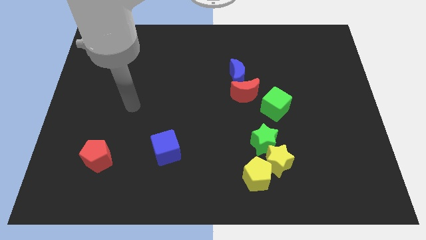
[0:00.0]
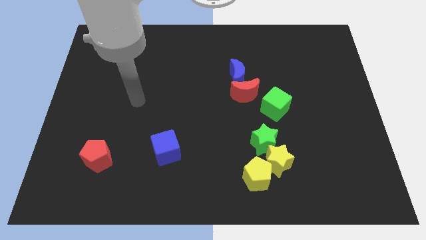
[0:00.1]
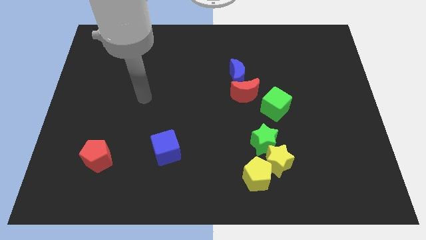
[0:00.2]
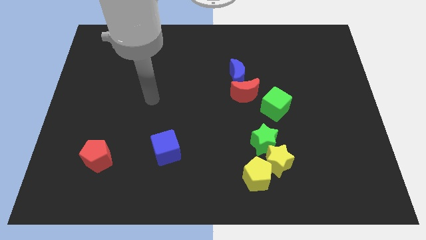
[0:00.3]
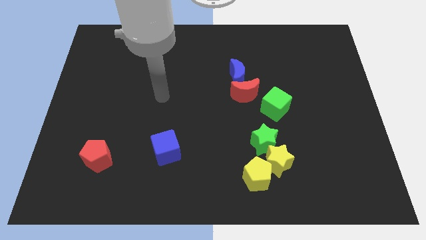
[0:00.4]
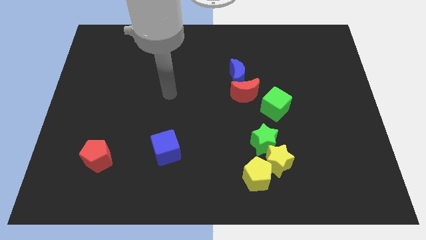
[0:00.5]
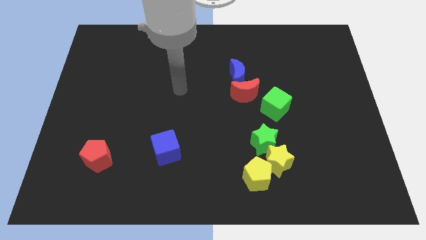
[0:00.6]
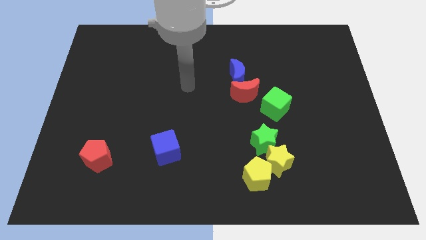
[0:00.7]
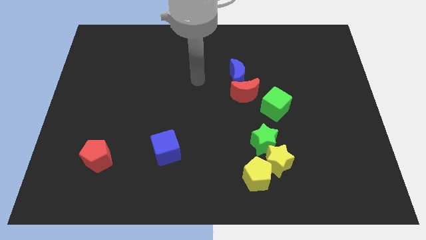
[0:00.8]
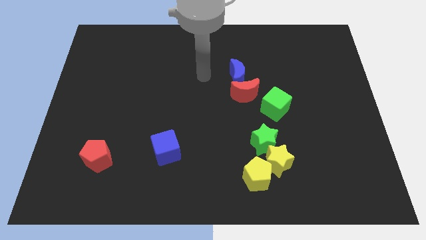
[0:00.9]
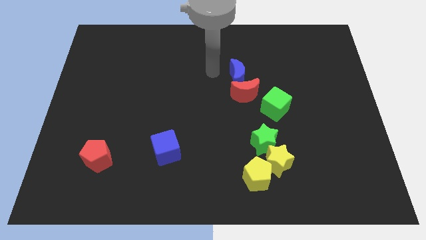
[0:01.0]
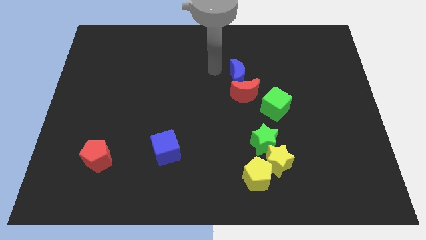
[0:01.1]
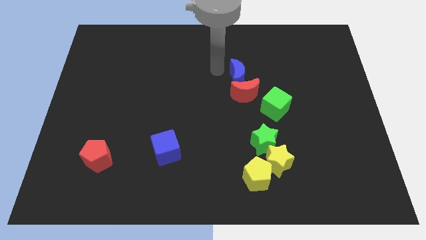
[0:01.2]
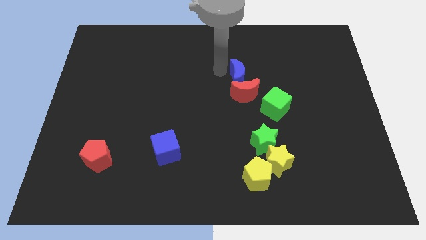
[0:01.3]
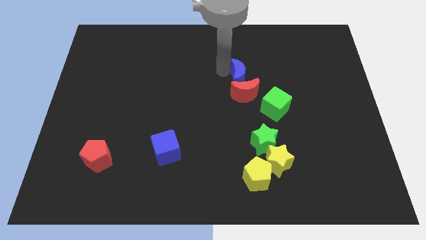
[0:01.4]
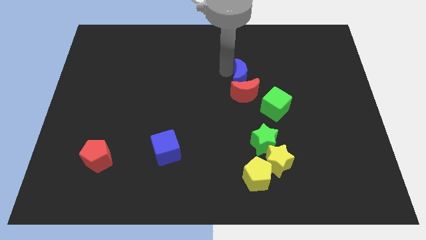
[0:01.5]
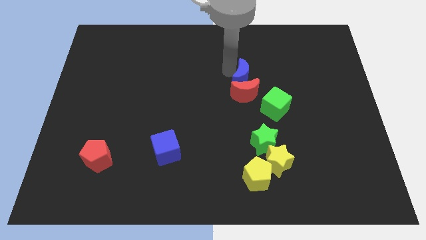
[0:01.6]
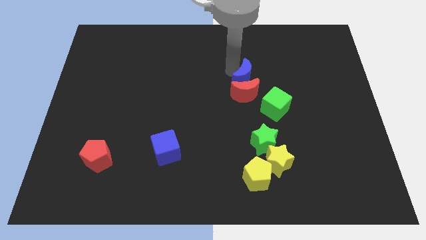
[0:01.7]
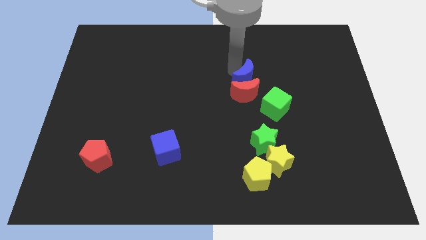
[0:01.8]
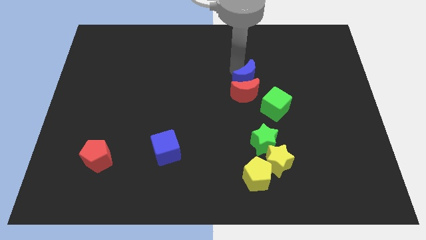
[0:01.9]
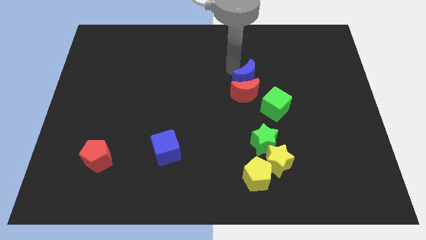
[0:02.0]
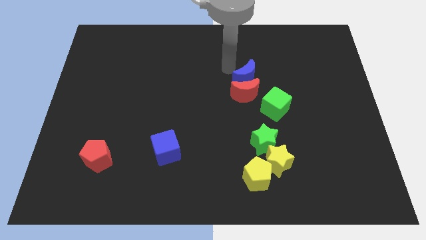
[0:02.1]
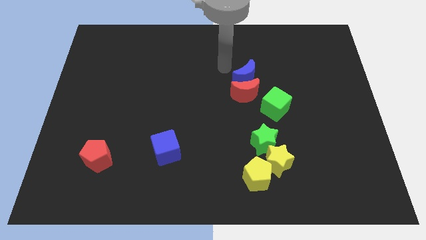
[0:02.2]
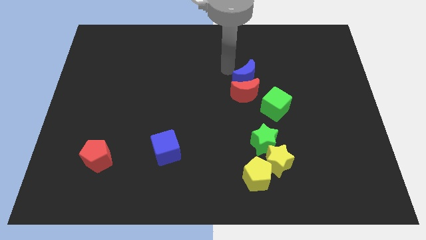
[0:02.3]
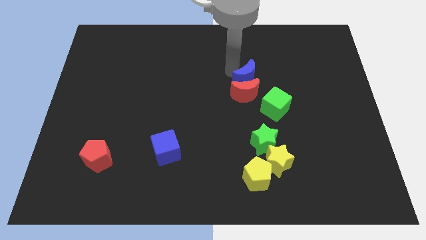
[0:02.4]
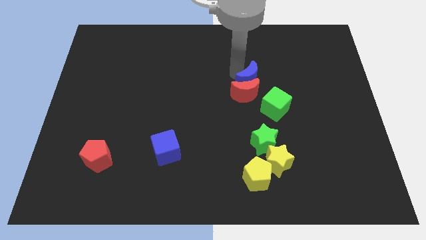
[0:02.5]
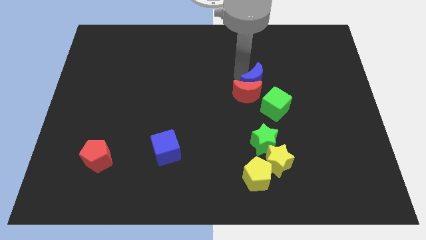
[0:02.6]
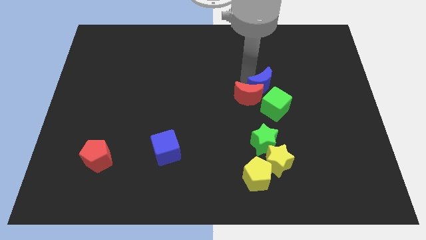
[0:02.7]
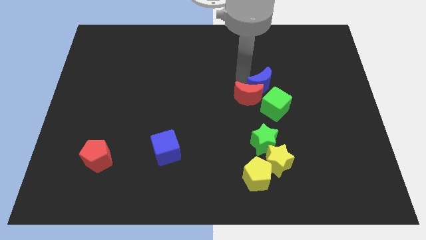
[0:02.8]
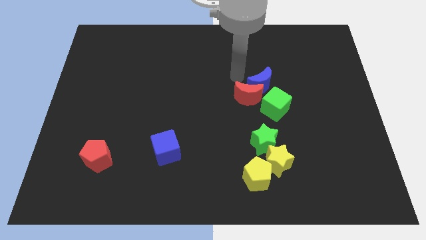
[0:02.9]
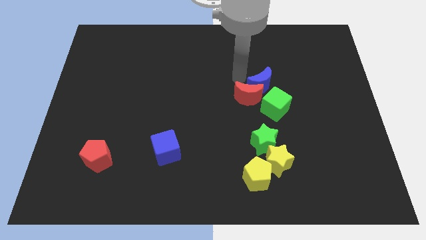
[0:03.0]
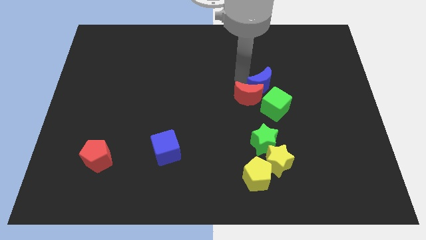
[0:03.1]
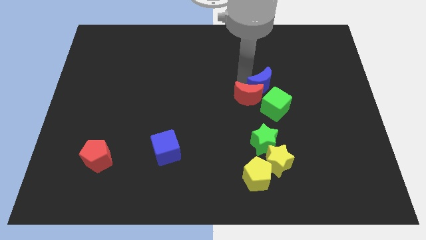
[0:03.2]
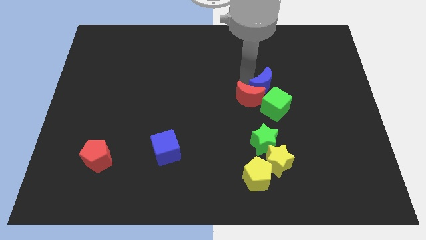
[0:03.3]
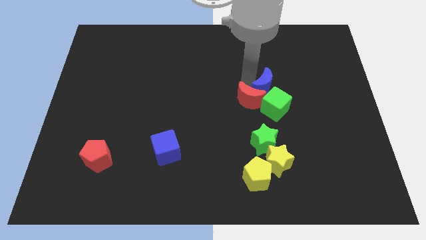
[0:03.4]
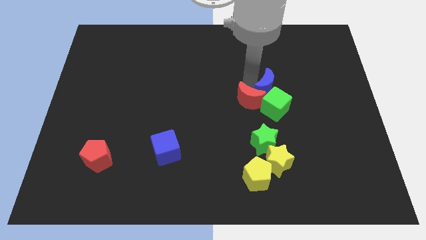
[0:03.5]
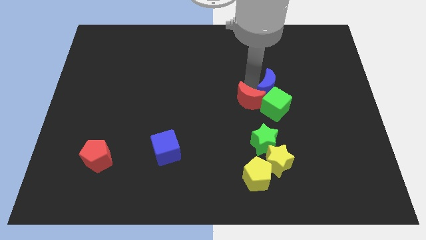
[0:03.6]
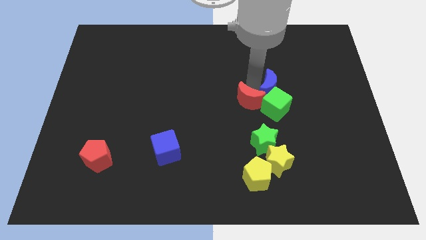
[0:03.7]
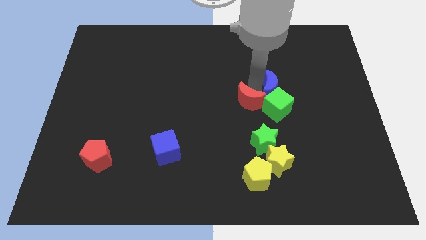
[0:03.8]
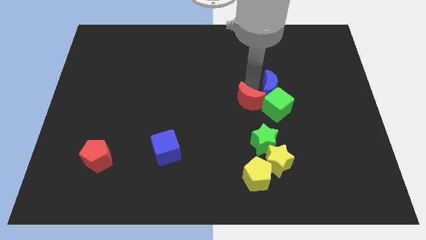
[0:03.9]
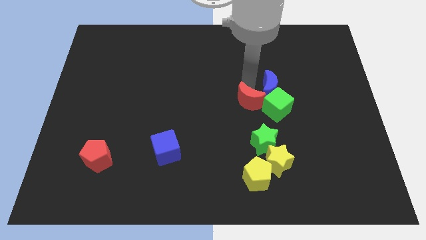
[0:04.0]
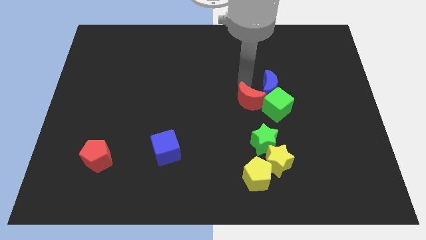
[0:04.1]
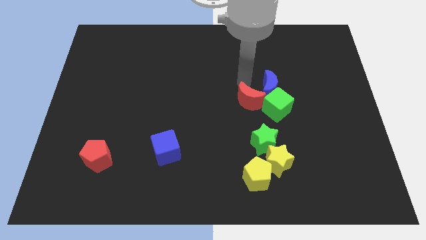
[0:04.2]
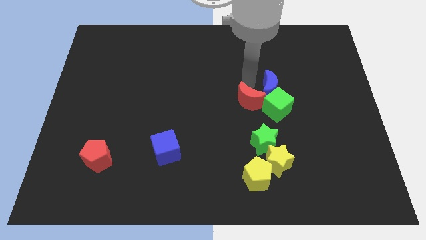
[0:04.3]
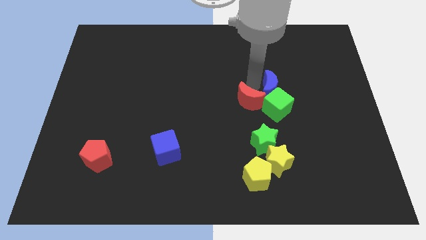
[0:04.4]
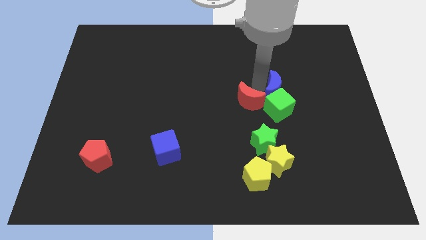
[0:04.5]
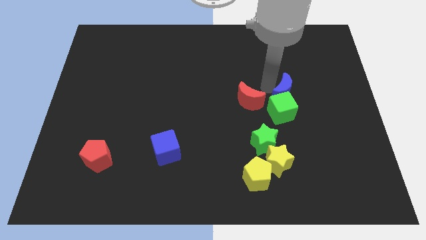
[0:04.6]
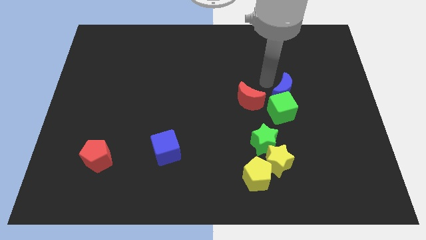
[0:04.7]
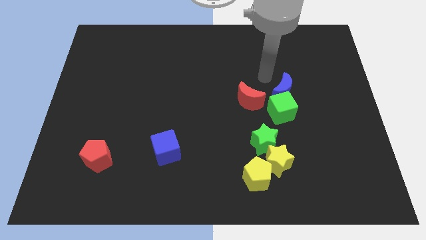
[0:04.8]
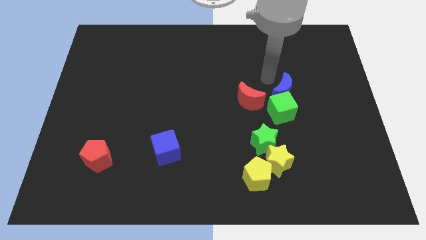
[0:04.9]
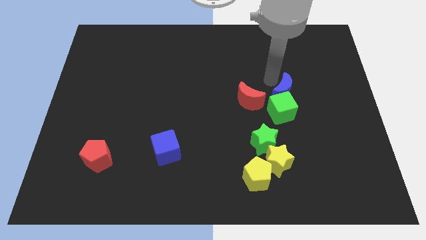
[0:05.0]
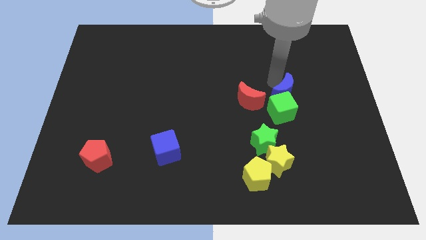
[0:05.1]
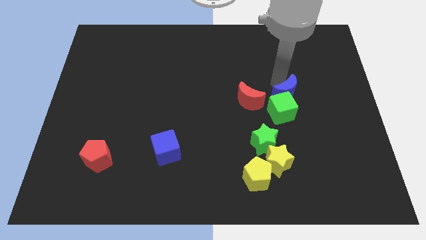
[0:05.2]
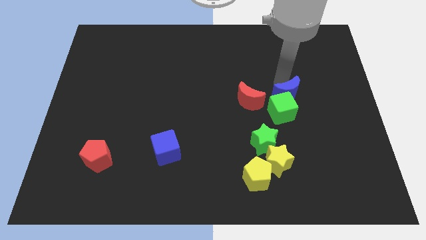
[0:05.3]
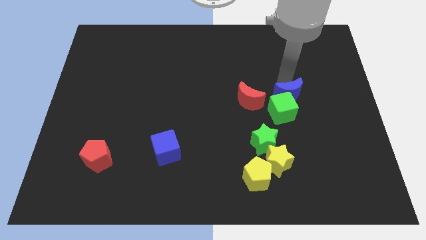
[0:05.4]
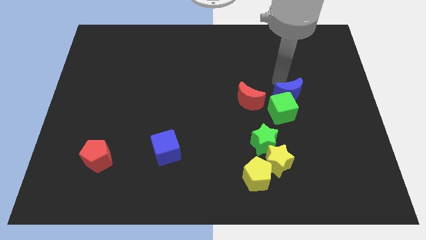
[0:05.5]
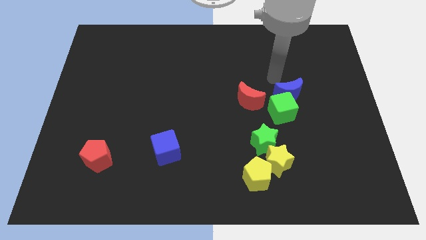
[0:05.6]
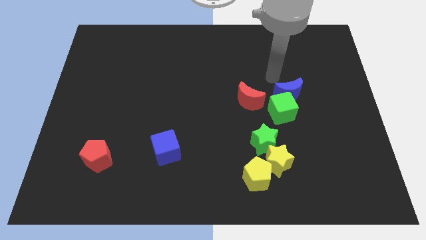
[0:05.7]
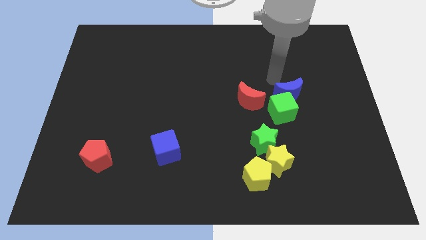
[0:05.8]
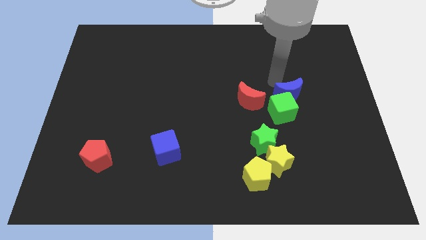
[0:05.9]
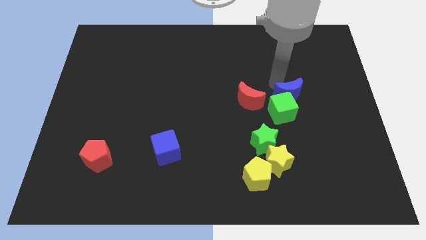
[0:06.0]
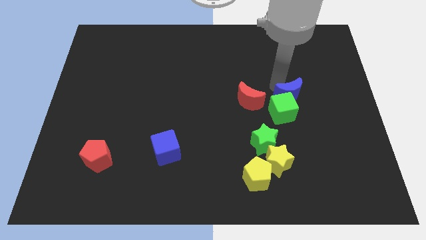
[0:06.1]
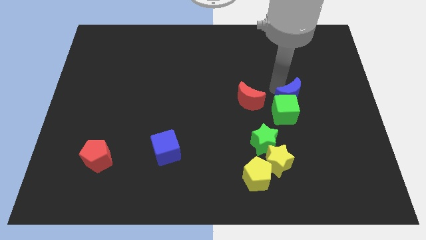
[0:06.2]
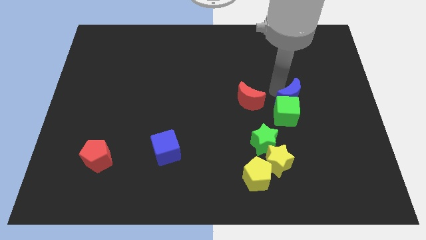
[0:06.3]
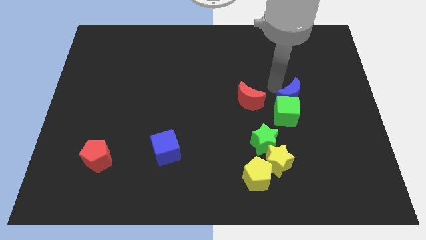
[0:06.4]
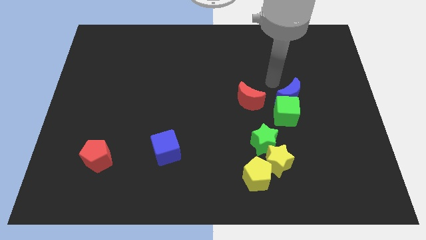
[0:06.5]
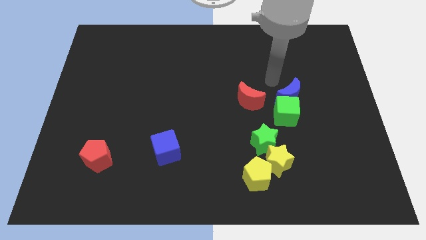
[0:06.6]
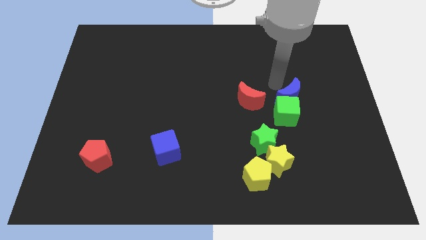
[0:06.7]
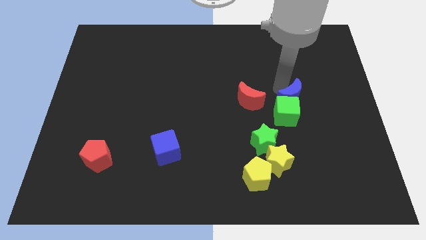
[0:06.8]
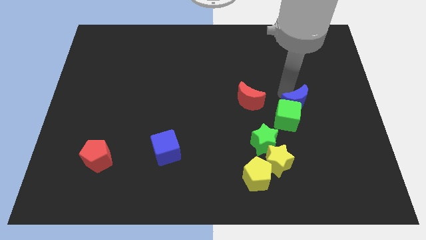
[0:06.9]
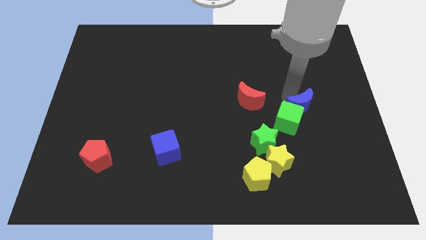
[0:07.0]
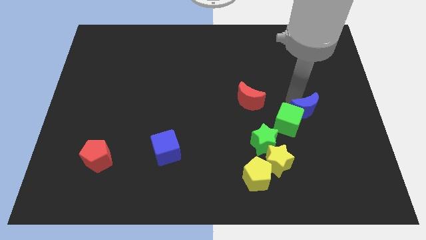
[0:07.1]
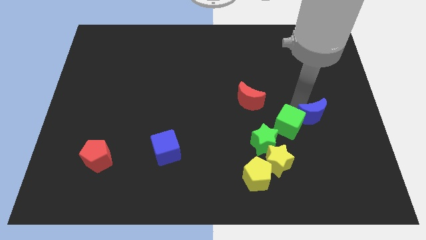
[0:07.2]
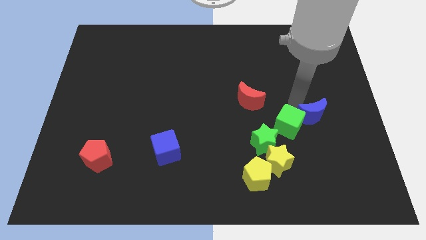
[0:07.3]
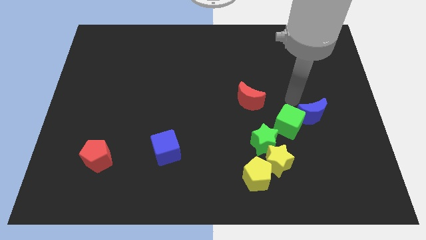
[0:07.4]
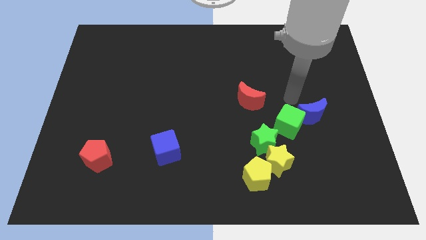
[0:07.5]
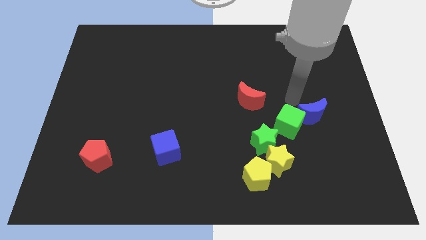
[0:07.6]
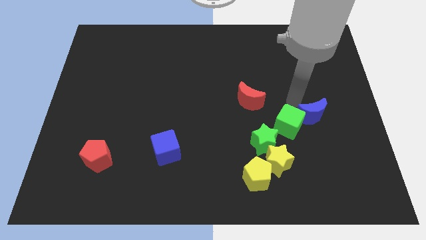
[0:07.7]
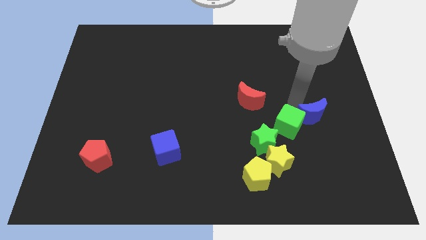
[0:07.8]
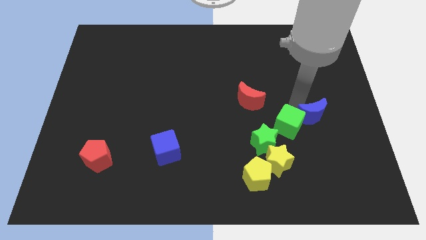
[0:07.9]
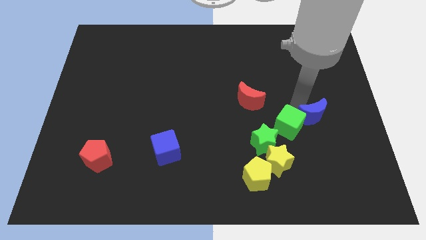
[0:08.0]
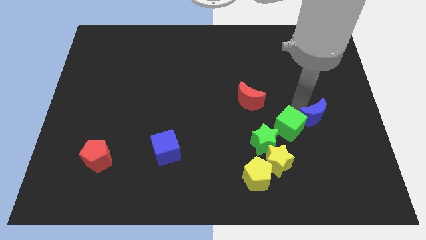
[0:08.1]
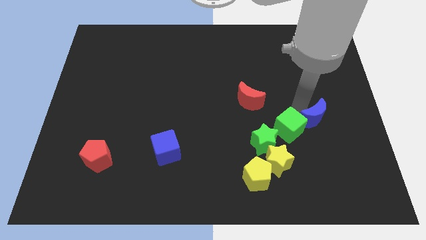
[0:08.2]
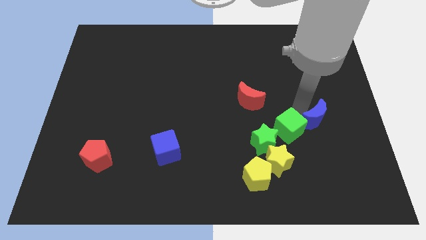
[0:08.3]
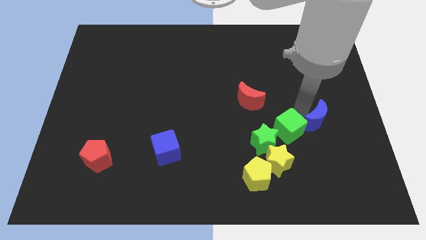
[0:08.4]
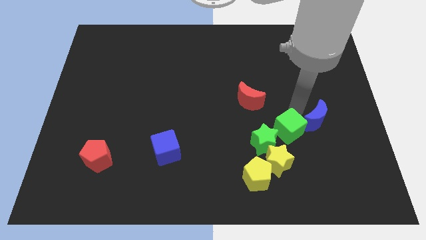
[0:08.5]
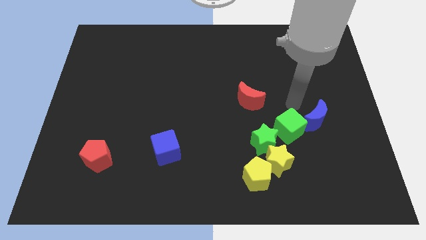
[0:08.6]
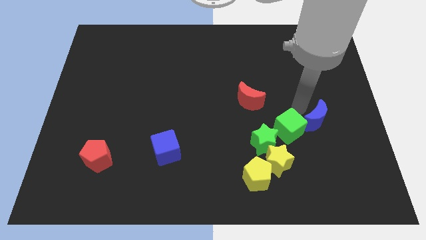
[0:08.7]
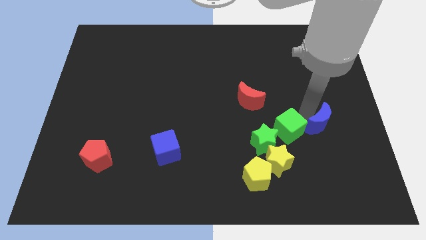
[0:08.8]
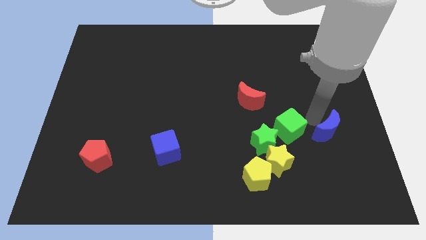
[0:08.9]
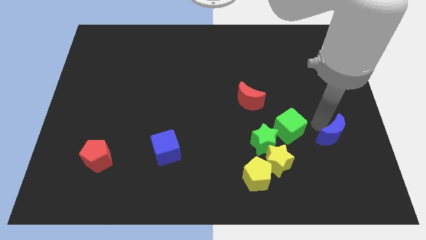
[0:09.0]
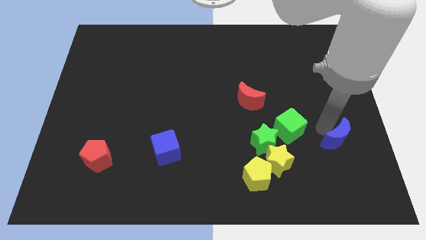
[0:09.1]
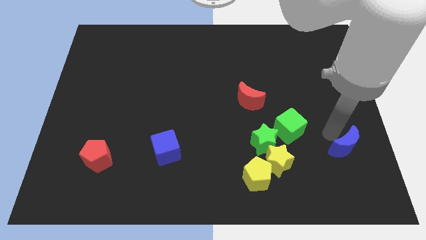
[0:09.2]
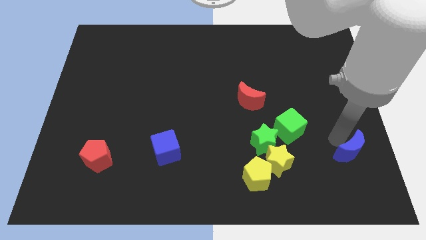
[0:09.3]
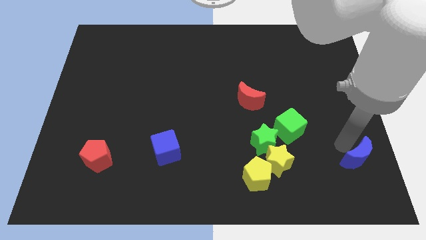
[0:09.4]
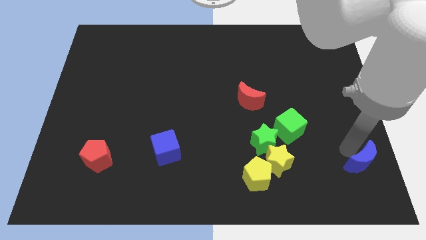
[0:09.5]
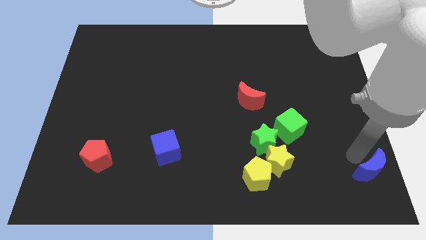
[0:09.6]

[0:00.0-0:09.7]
slide the blue moon to the bottom right
